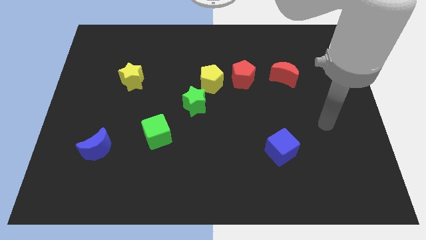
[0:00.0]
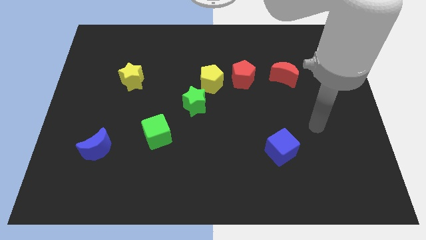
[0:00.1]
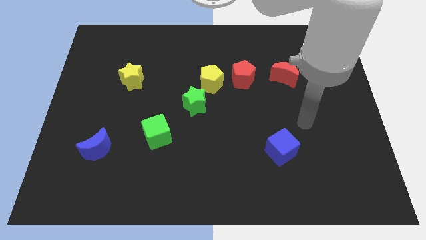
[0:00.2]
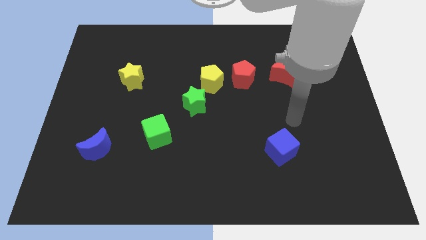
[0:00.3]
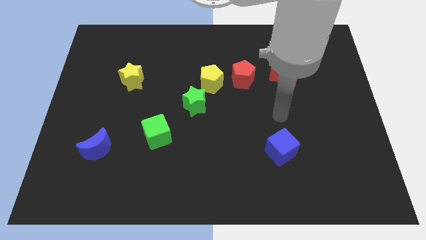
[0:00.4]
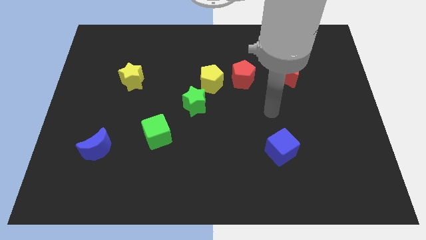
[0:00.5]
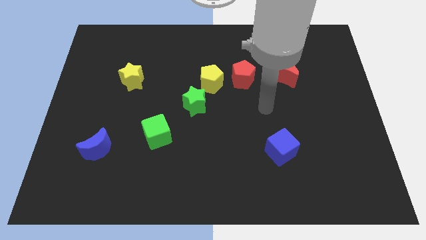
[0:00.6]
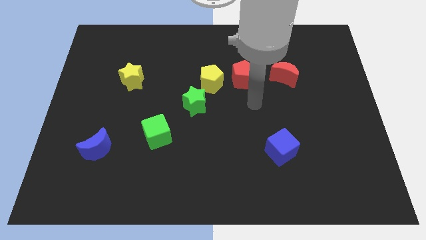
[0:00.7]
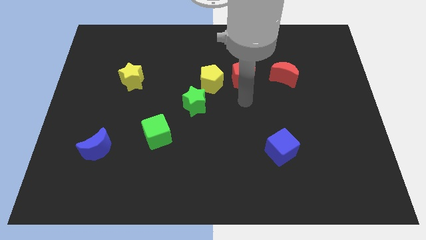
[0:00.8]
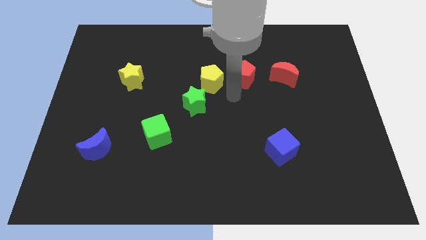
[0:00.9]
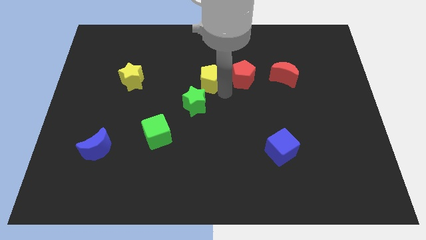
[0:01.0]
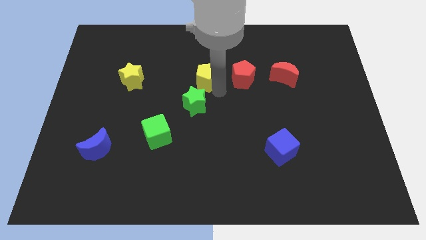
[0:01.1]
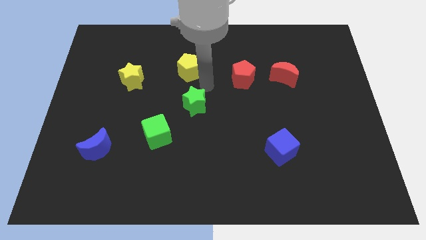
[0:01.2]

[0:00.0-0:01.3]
separate the green star from the yellow pentagon

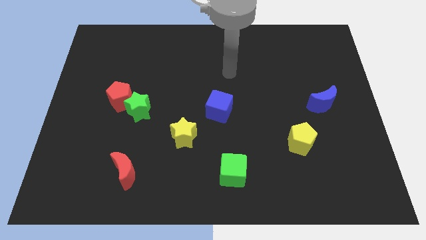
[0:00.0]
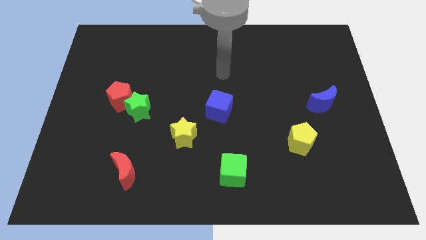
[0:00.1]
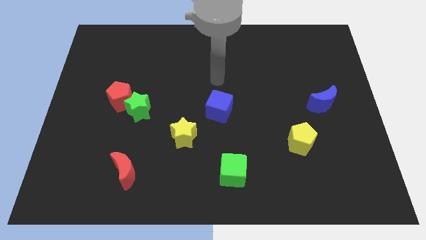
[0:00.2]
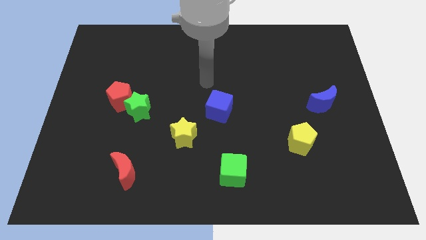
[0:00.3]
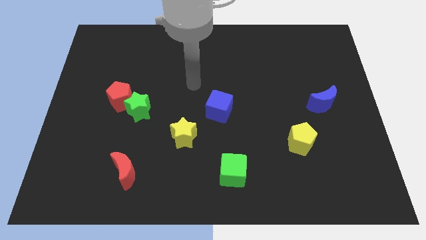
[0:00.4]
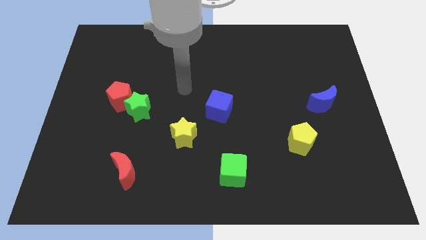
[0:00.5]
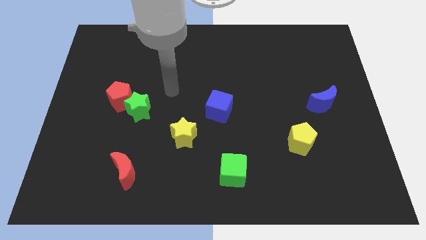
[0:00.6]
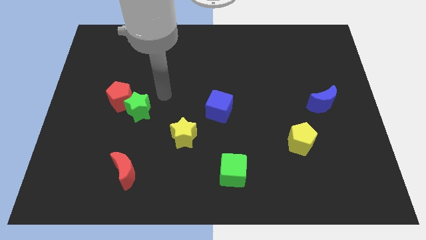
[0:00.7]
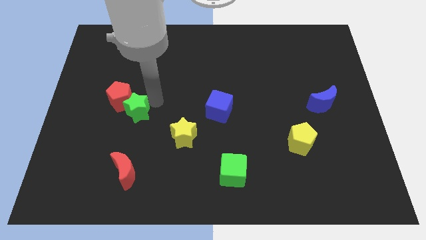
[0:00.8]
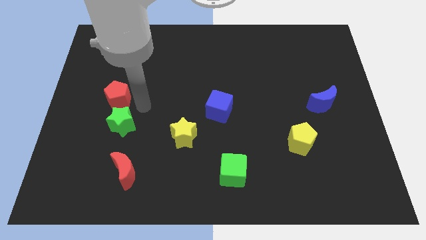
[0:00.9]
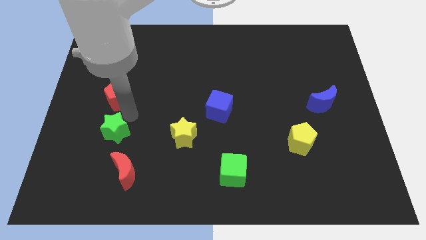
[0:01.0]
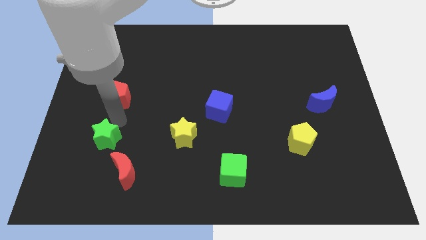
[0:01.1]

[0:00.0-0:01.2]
move the red pentagon away from the green star

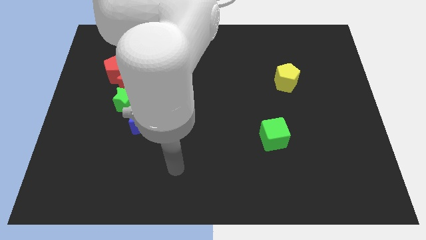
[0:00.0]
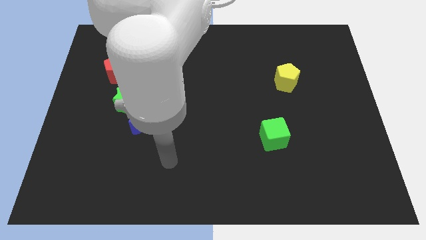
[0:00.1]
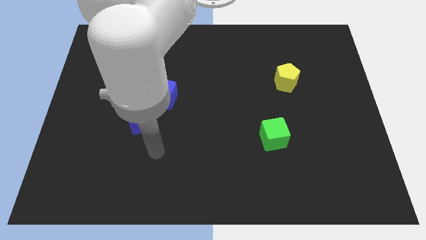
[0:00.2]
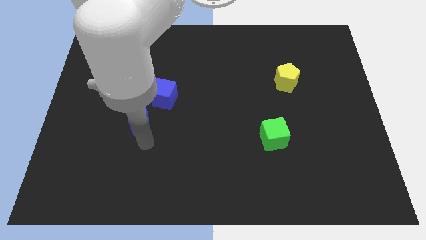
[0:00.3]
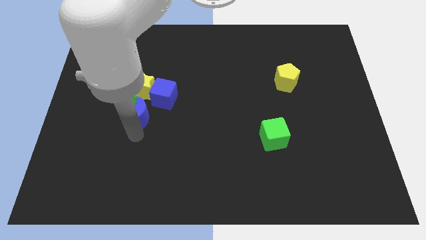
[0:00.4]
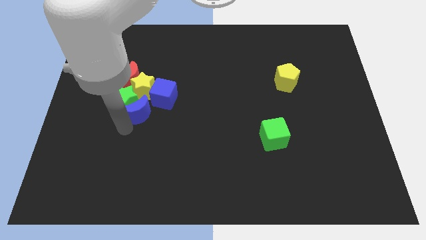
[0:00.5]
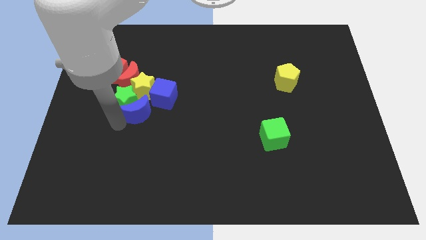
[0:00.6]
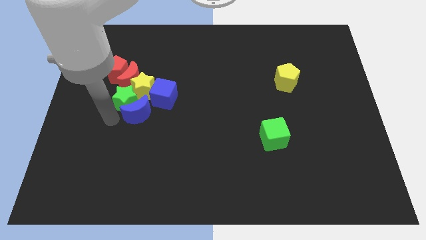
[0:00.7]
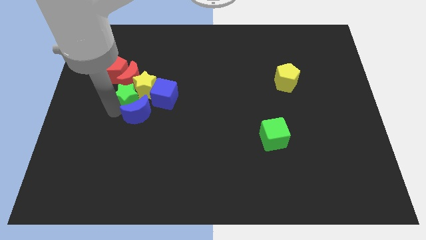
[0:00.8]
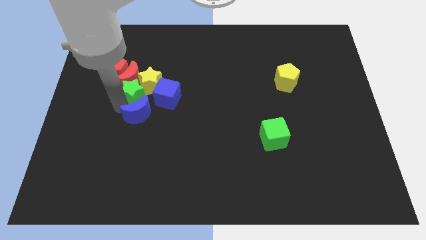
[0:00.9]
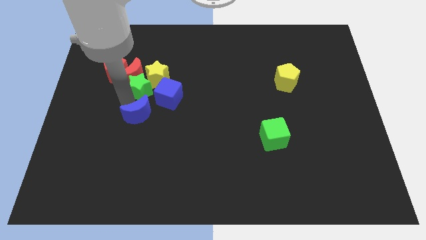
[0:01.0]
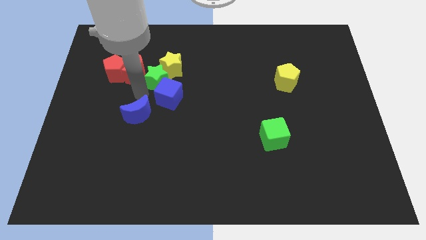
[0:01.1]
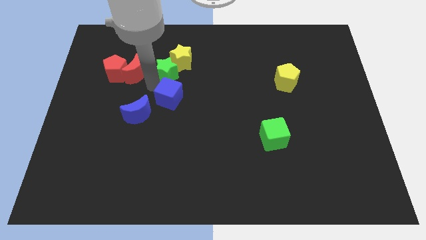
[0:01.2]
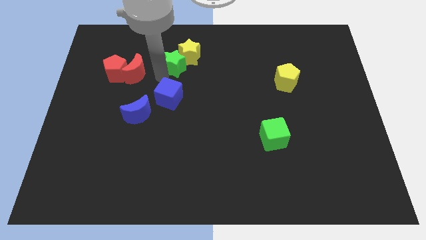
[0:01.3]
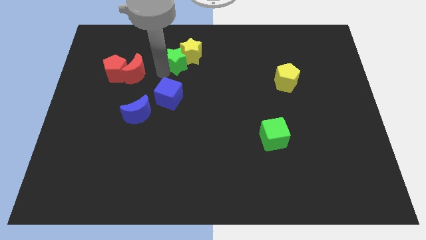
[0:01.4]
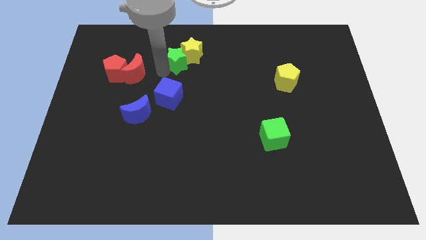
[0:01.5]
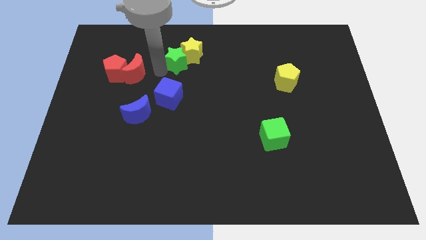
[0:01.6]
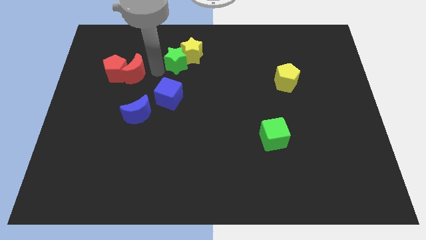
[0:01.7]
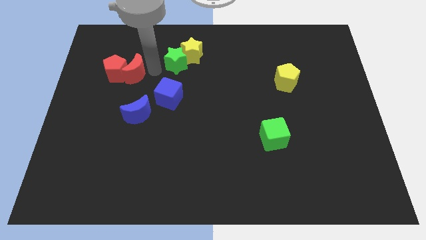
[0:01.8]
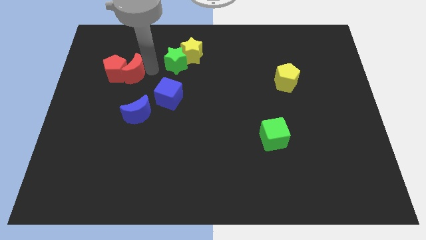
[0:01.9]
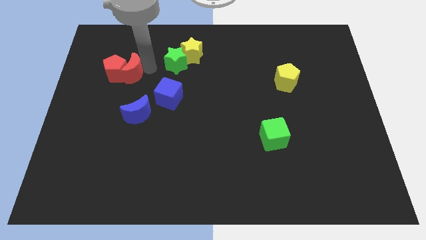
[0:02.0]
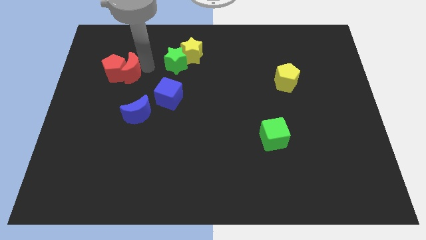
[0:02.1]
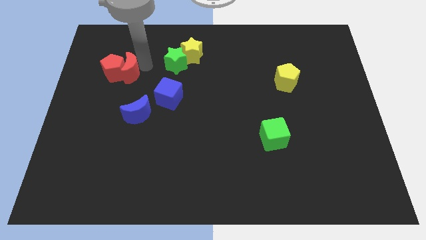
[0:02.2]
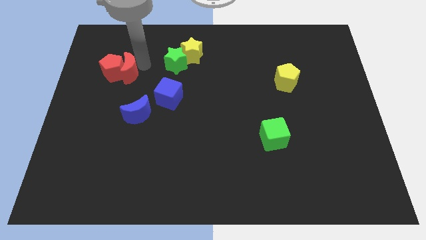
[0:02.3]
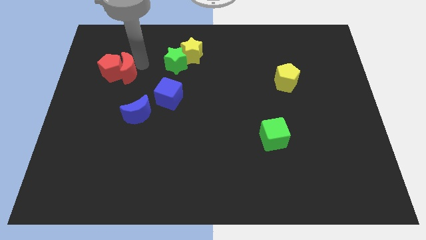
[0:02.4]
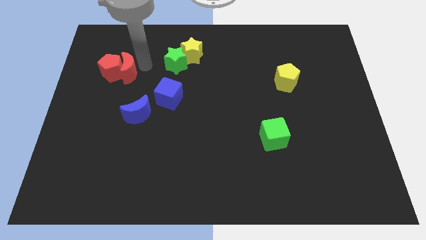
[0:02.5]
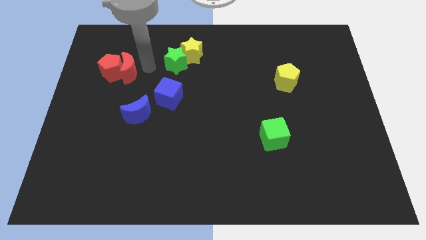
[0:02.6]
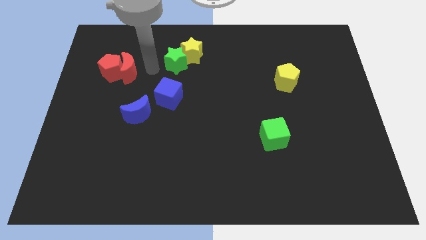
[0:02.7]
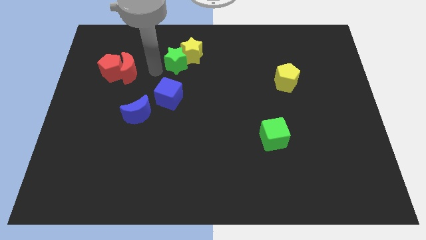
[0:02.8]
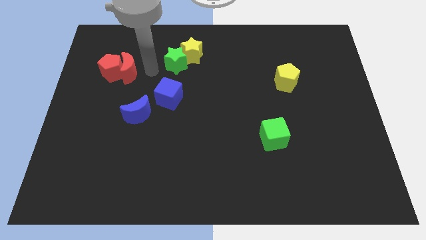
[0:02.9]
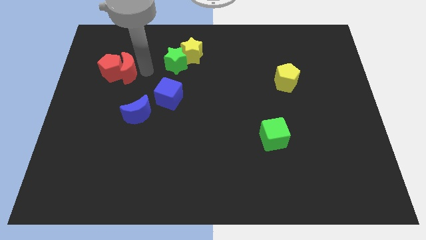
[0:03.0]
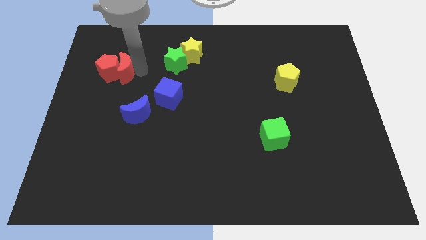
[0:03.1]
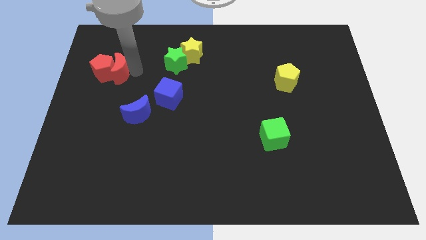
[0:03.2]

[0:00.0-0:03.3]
pull the red moon apart from the group

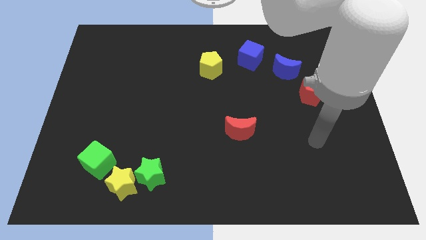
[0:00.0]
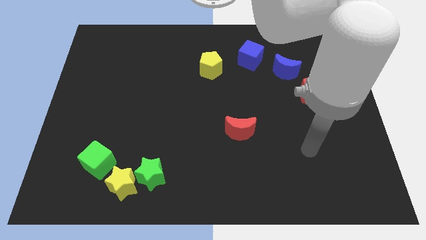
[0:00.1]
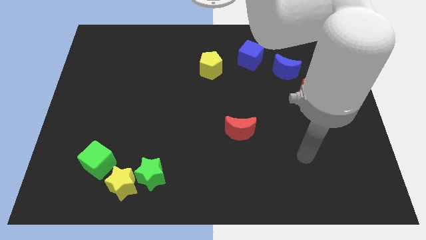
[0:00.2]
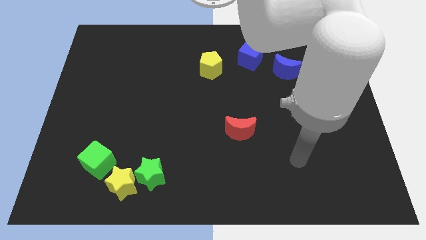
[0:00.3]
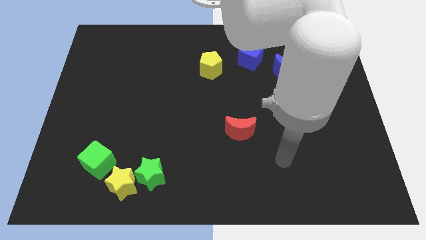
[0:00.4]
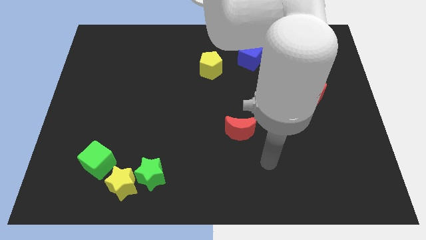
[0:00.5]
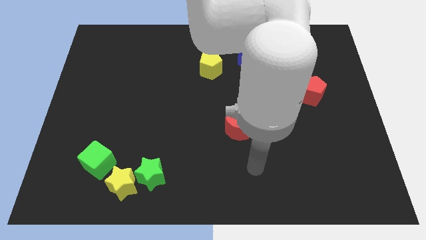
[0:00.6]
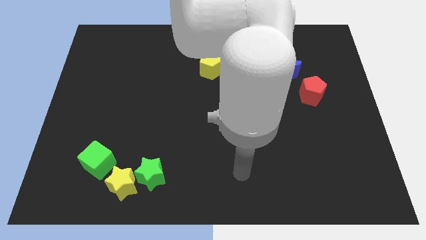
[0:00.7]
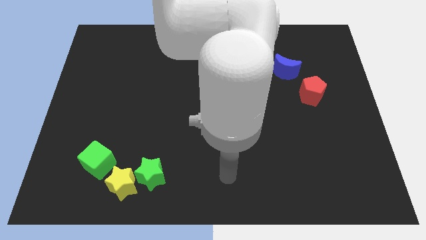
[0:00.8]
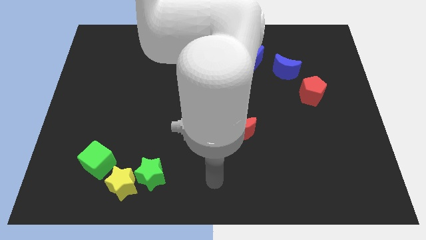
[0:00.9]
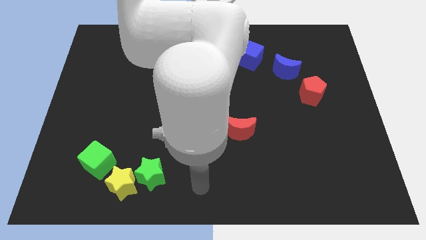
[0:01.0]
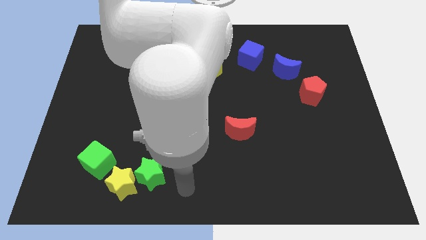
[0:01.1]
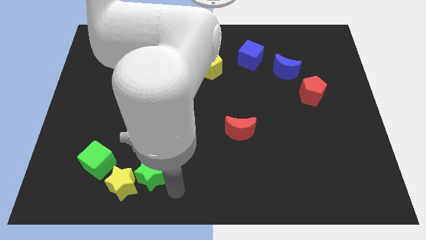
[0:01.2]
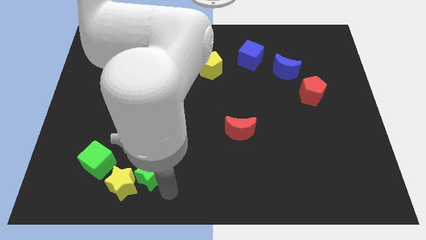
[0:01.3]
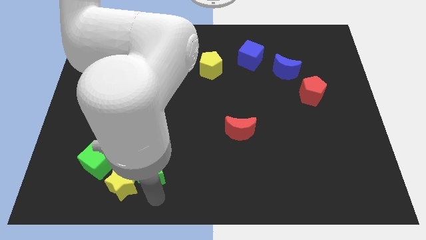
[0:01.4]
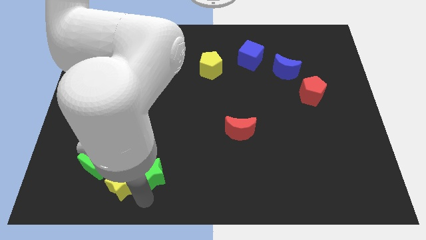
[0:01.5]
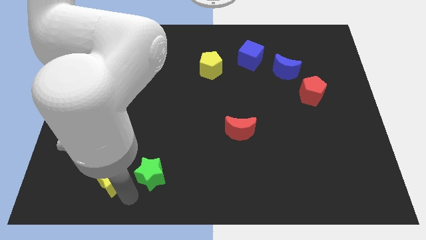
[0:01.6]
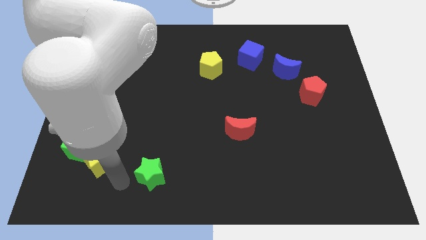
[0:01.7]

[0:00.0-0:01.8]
separate the green star from the yellow star

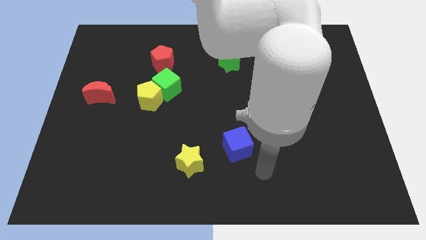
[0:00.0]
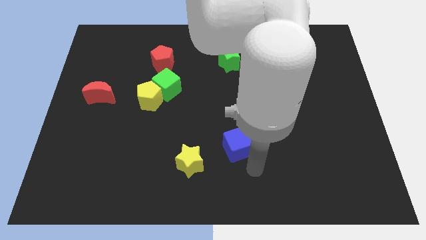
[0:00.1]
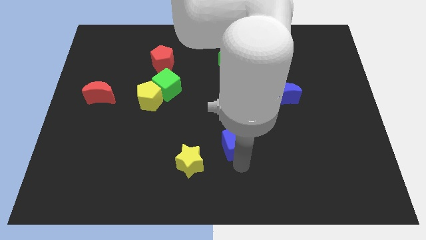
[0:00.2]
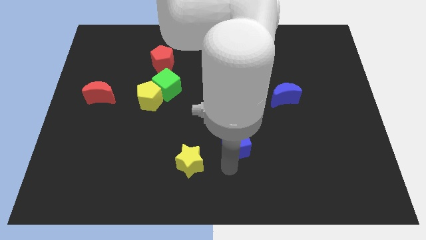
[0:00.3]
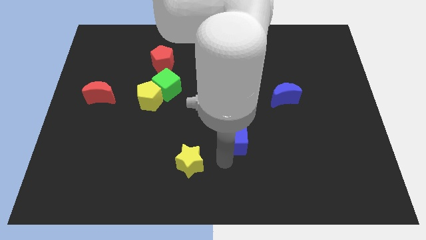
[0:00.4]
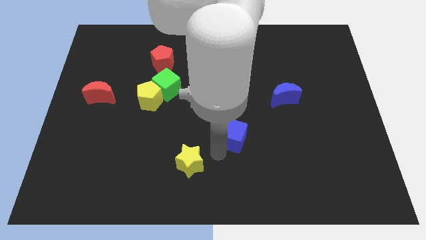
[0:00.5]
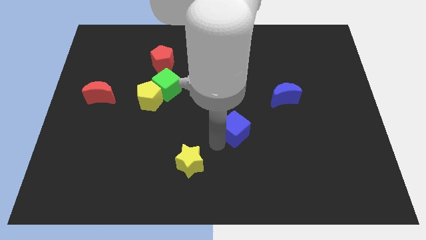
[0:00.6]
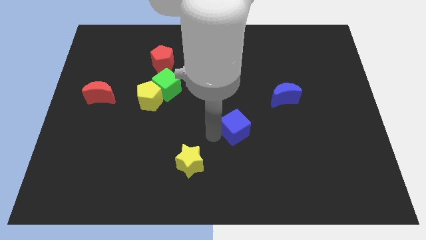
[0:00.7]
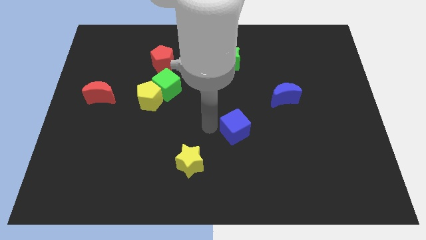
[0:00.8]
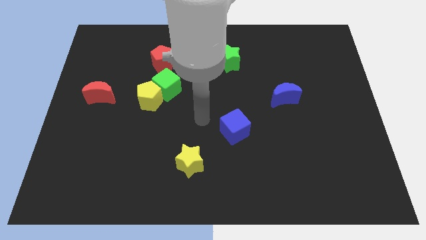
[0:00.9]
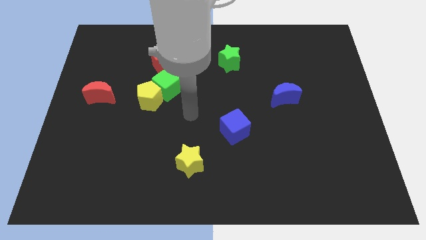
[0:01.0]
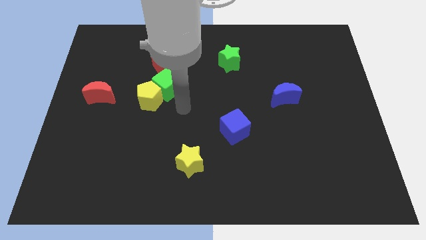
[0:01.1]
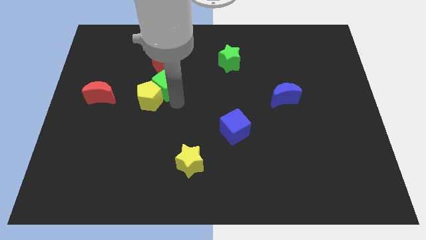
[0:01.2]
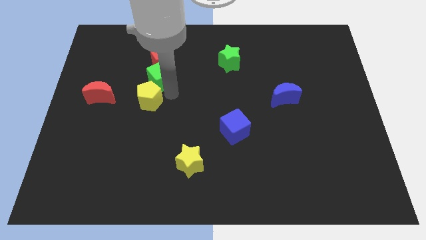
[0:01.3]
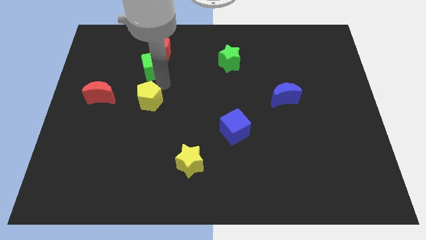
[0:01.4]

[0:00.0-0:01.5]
pull the yellow pentagon apart from the green cube

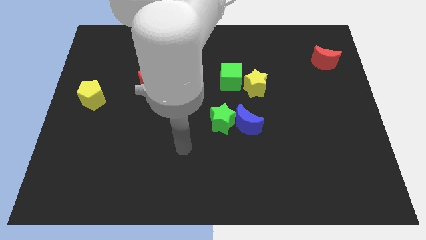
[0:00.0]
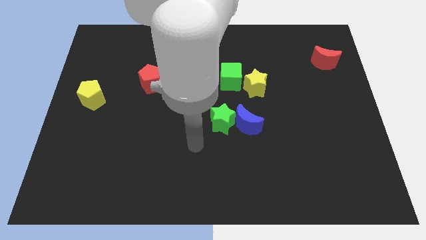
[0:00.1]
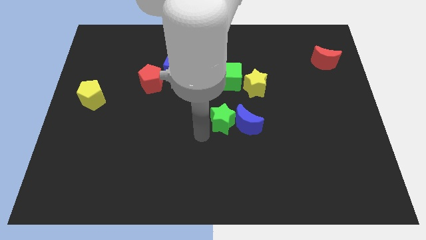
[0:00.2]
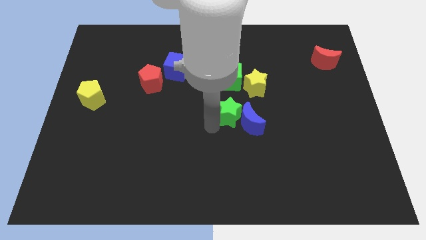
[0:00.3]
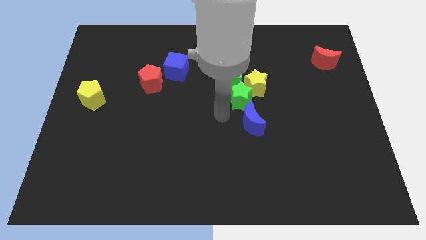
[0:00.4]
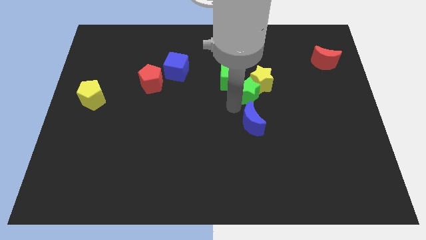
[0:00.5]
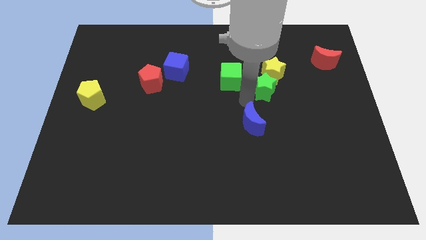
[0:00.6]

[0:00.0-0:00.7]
move the blue moon away from the green star
